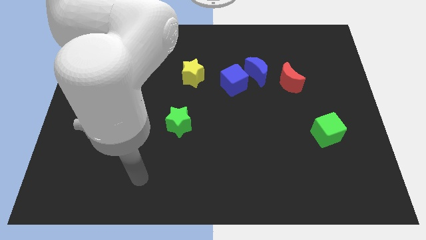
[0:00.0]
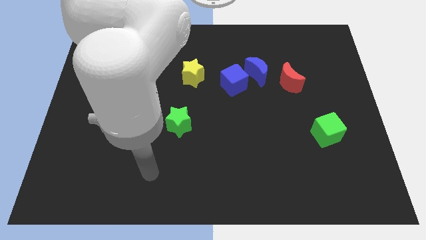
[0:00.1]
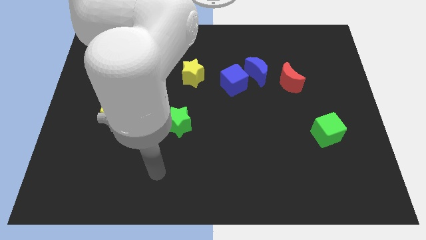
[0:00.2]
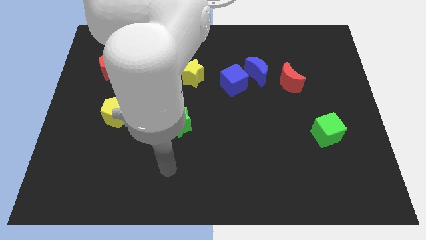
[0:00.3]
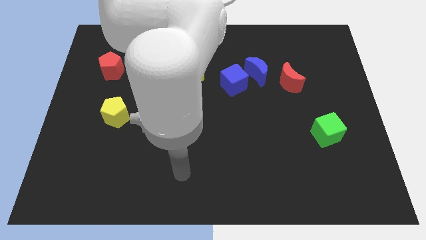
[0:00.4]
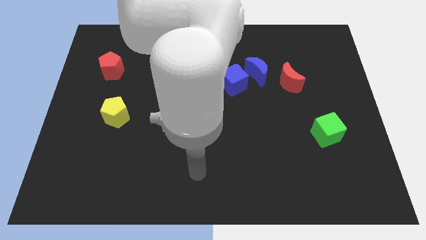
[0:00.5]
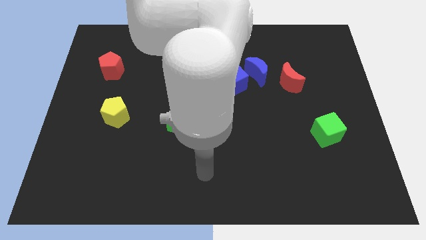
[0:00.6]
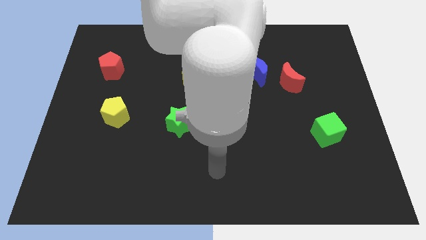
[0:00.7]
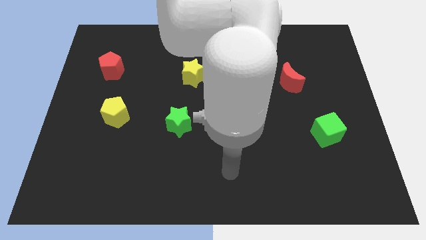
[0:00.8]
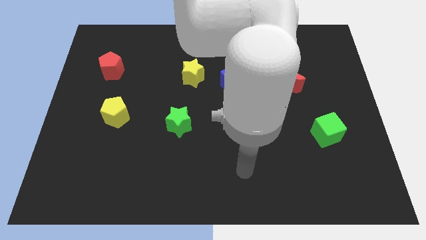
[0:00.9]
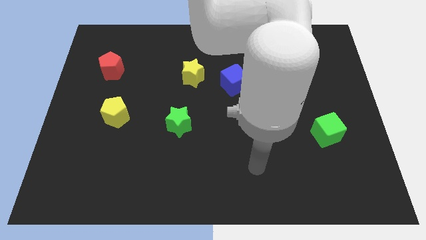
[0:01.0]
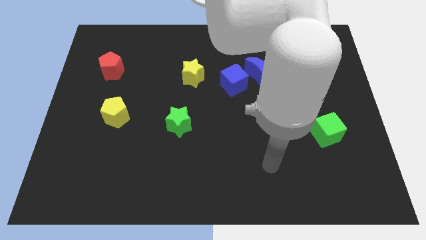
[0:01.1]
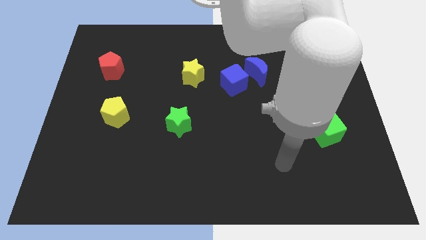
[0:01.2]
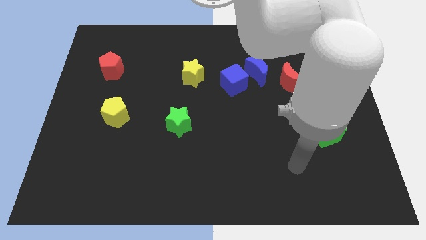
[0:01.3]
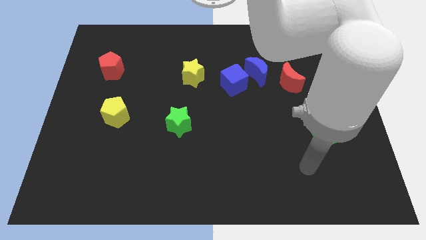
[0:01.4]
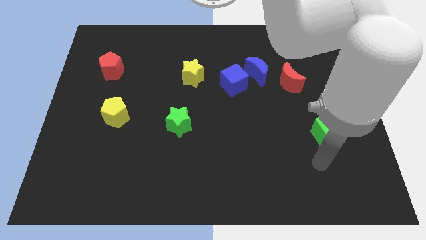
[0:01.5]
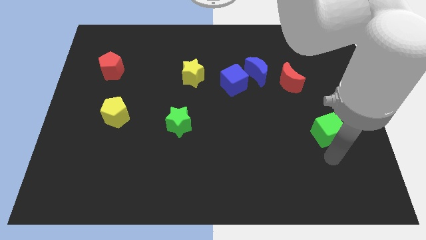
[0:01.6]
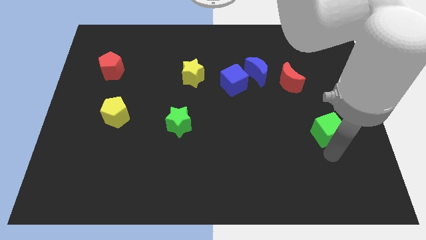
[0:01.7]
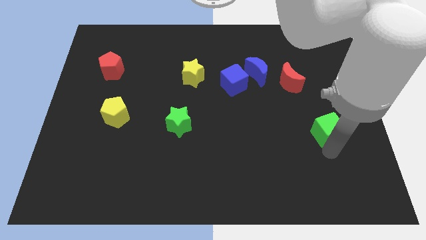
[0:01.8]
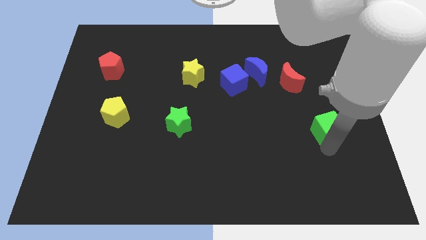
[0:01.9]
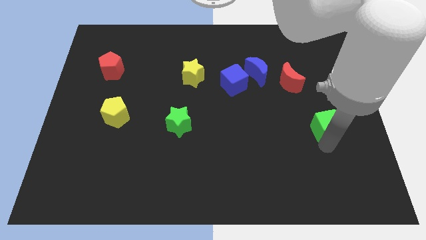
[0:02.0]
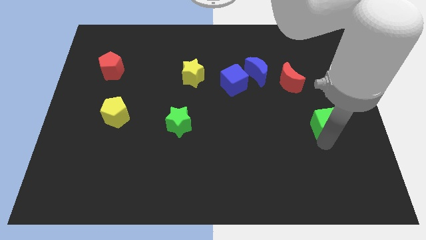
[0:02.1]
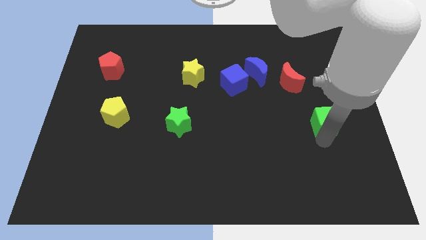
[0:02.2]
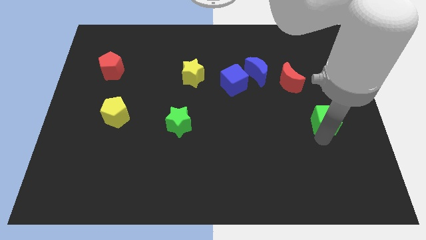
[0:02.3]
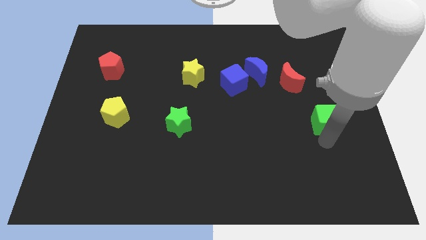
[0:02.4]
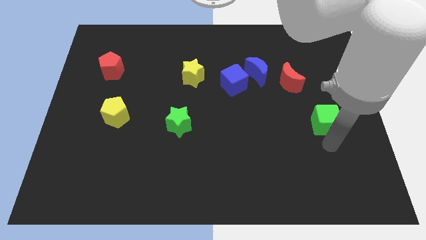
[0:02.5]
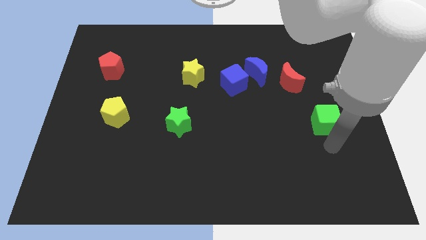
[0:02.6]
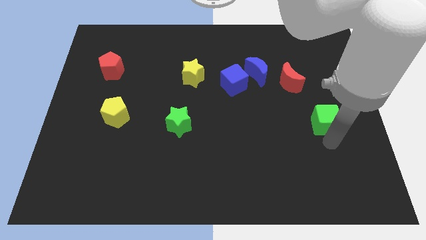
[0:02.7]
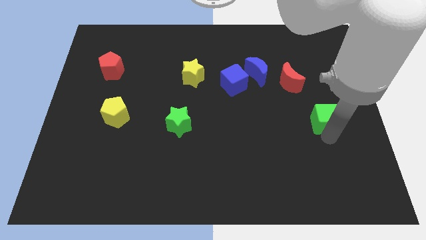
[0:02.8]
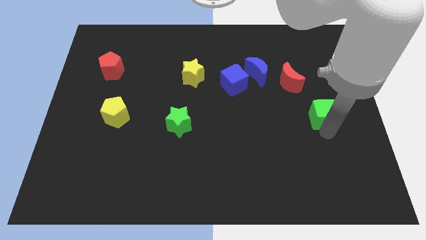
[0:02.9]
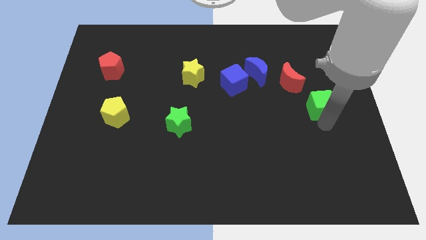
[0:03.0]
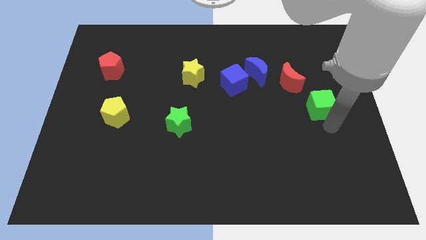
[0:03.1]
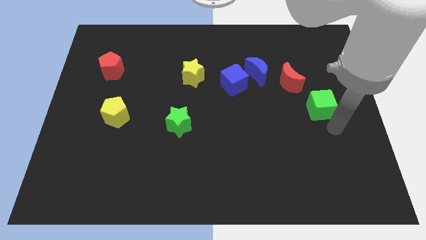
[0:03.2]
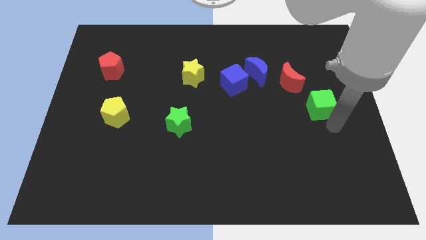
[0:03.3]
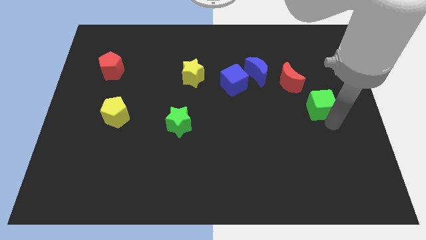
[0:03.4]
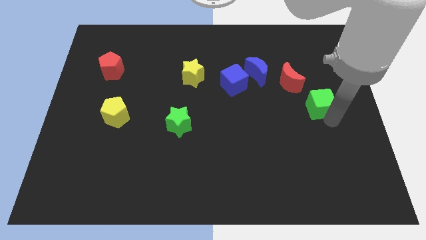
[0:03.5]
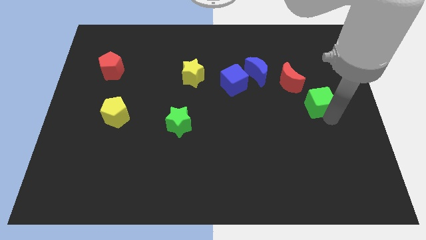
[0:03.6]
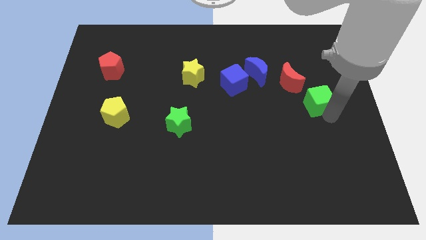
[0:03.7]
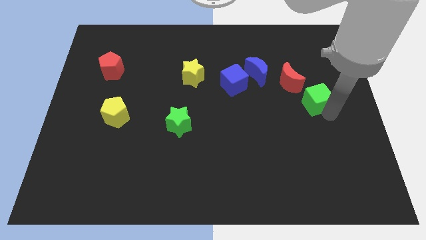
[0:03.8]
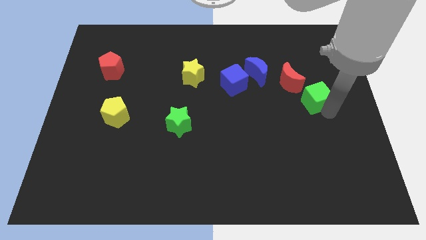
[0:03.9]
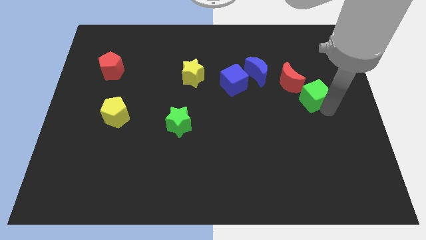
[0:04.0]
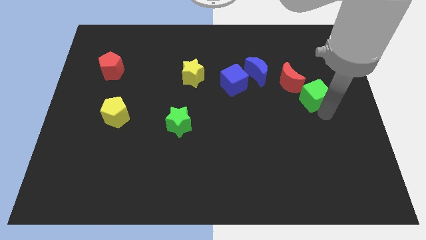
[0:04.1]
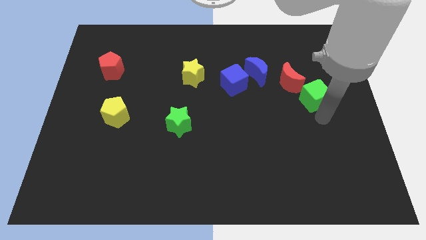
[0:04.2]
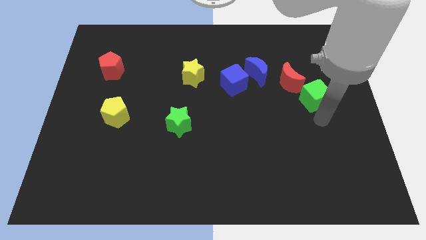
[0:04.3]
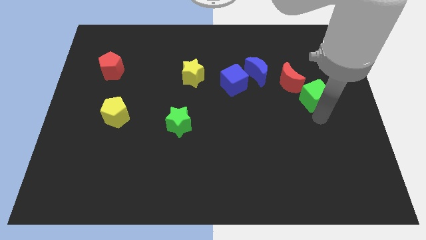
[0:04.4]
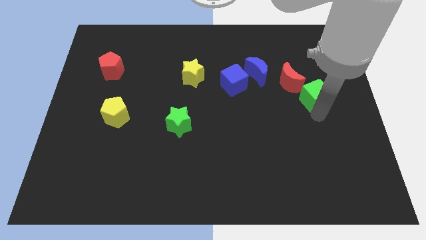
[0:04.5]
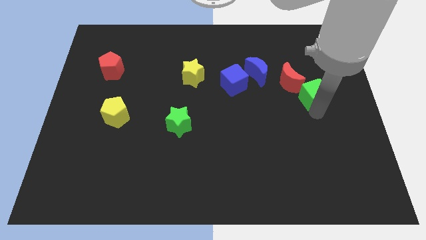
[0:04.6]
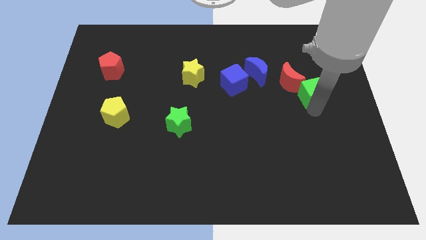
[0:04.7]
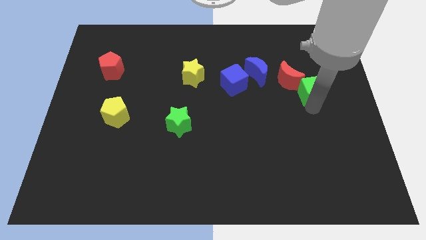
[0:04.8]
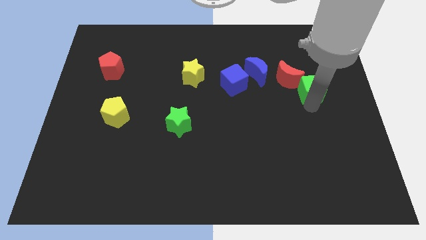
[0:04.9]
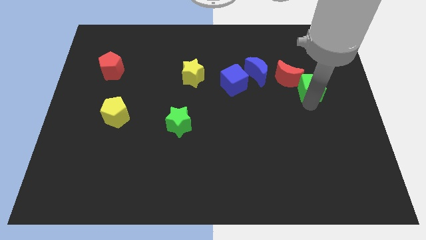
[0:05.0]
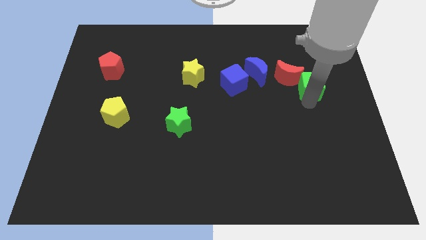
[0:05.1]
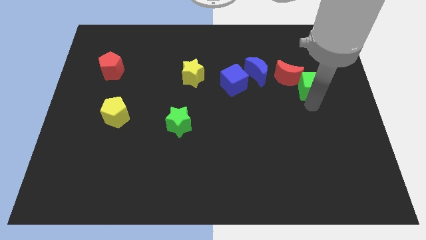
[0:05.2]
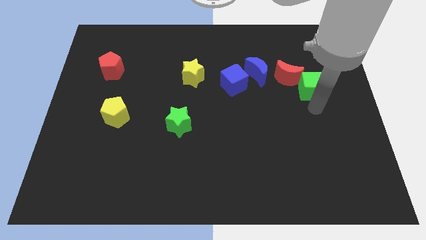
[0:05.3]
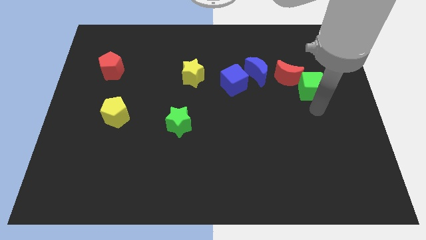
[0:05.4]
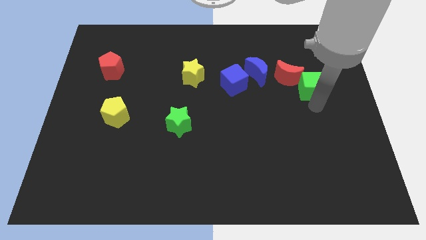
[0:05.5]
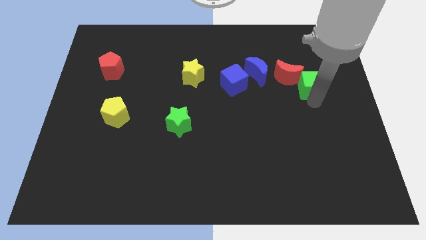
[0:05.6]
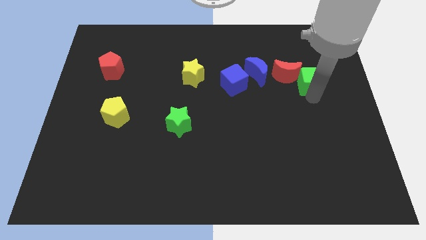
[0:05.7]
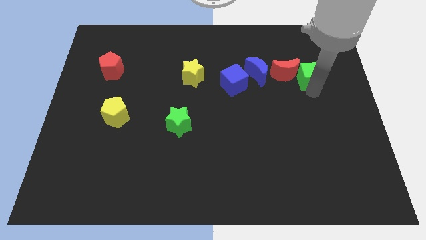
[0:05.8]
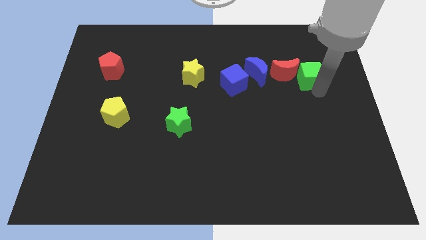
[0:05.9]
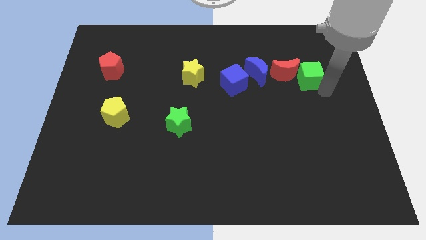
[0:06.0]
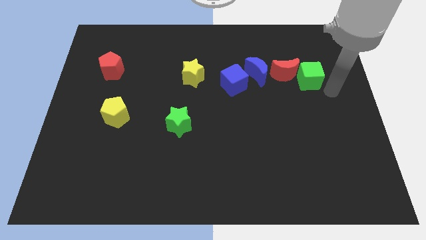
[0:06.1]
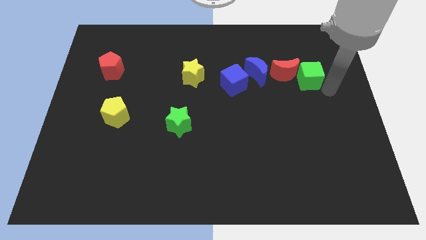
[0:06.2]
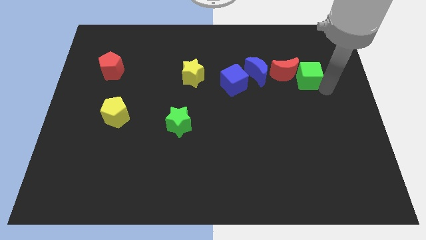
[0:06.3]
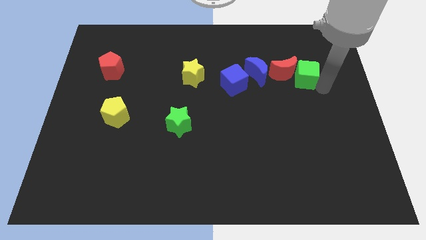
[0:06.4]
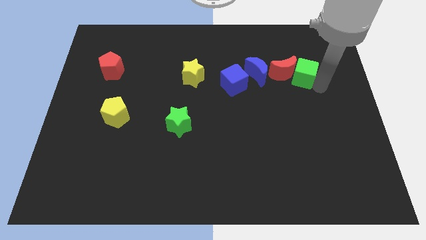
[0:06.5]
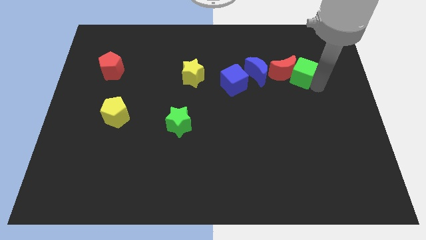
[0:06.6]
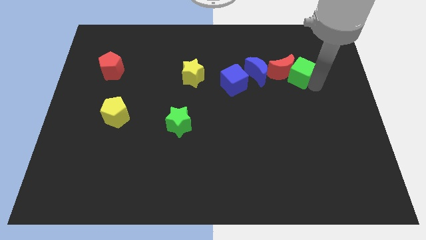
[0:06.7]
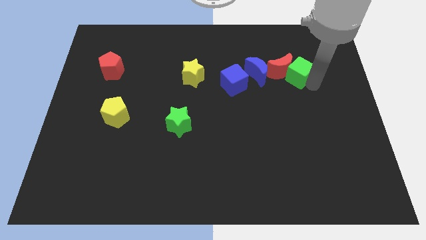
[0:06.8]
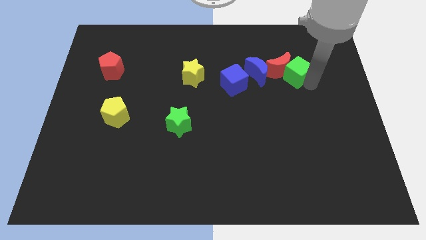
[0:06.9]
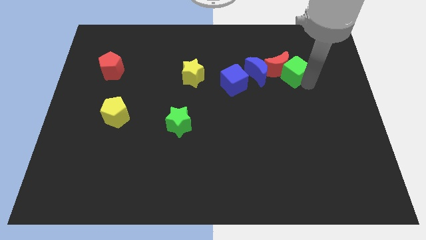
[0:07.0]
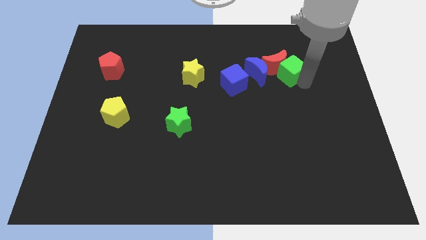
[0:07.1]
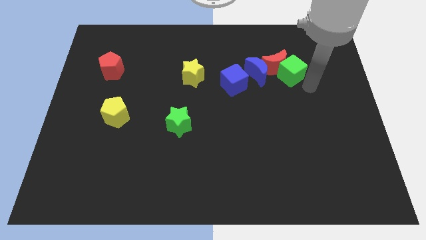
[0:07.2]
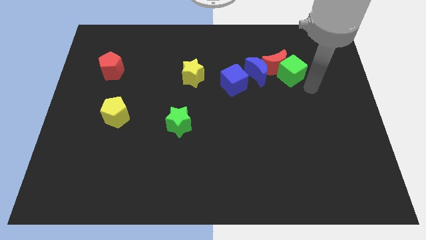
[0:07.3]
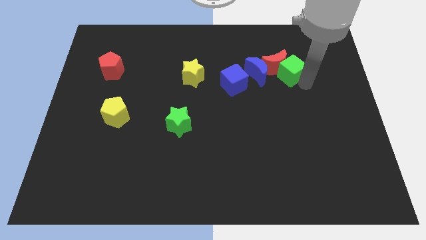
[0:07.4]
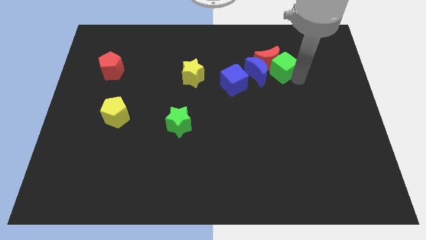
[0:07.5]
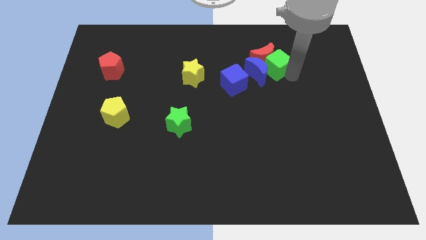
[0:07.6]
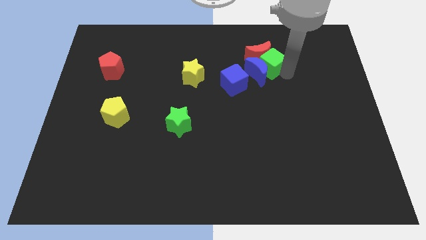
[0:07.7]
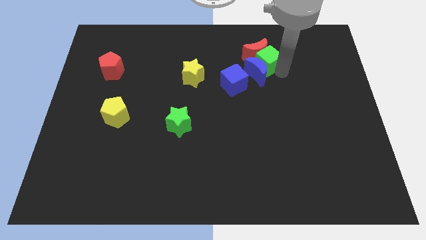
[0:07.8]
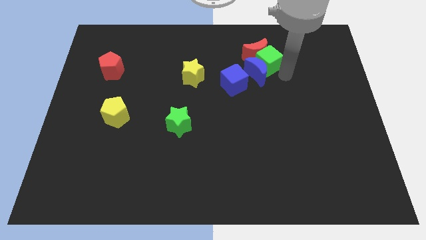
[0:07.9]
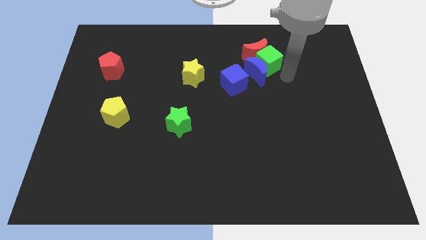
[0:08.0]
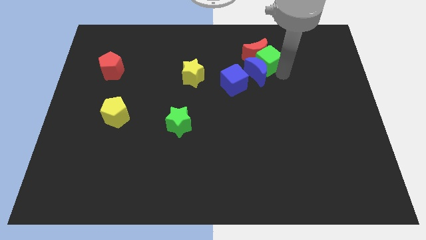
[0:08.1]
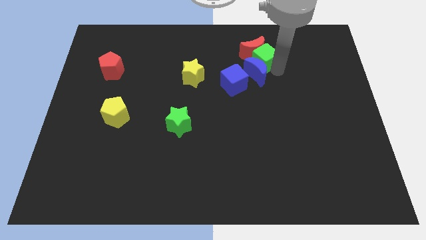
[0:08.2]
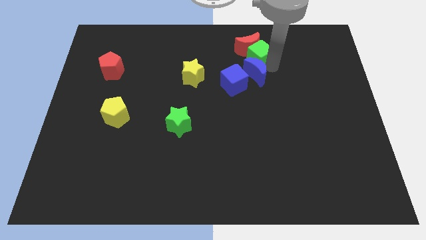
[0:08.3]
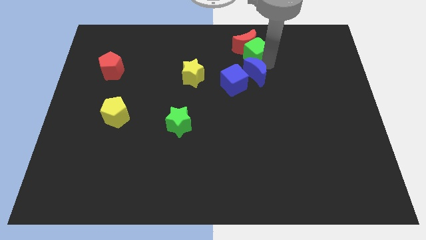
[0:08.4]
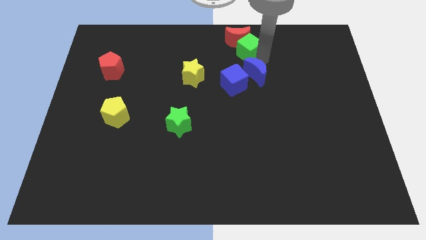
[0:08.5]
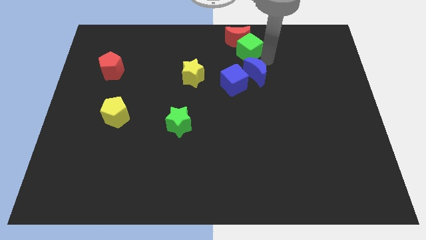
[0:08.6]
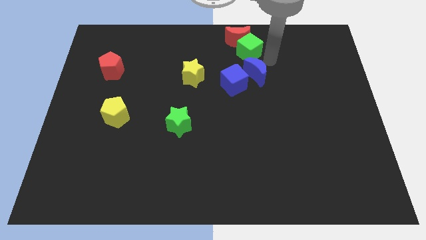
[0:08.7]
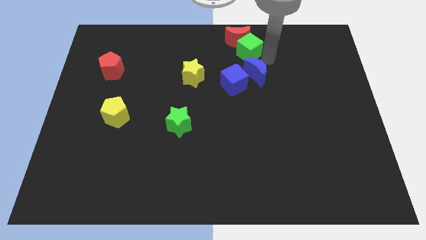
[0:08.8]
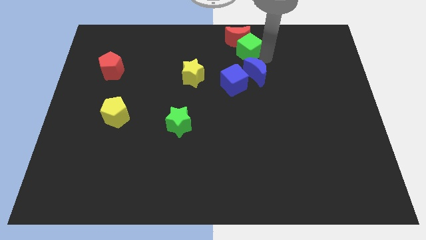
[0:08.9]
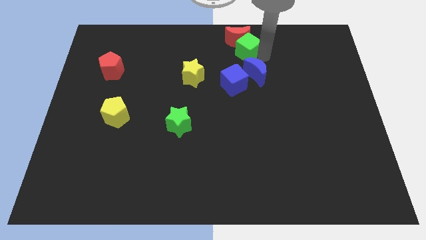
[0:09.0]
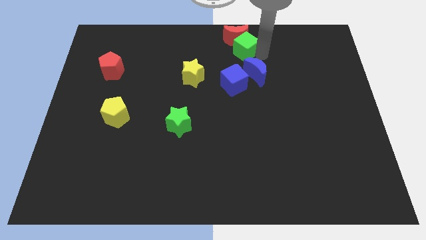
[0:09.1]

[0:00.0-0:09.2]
push the green cube to the towards your base
